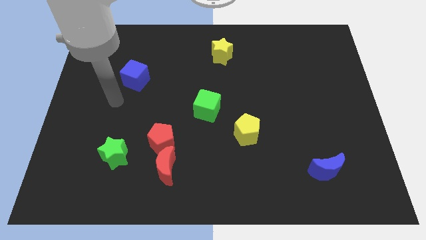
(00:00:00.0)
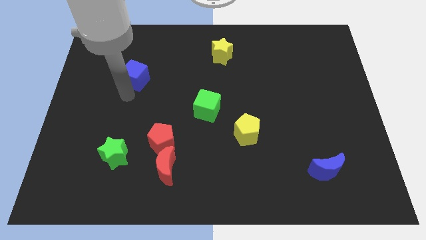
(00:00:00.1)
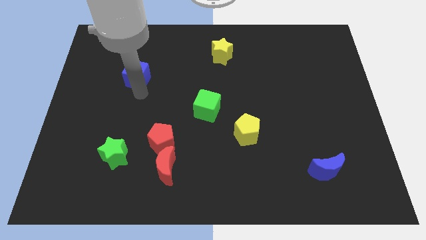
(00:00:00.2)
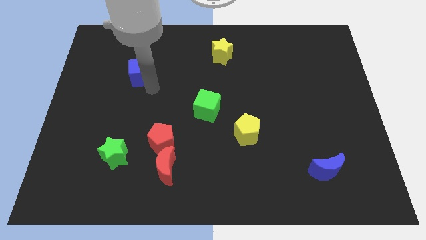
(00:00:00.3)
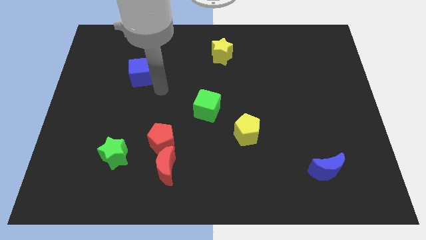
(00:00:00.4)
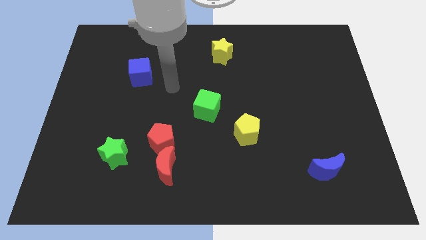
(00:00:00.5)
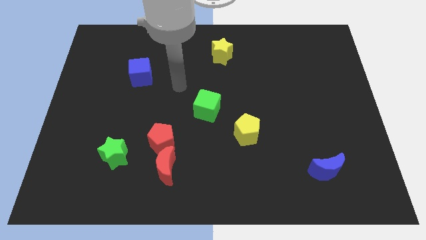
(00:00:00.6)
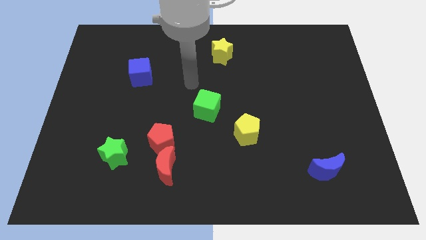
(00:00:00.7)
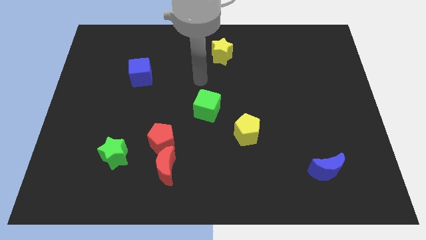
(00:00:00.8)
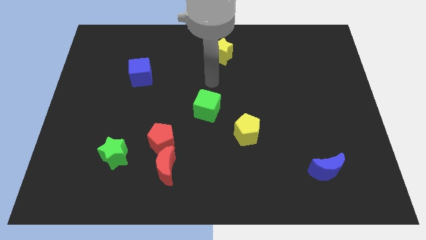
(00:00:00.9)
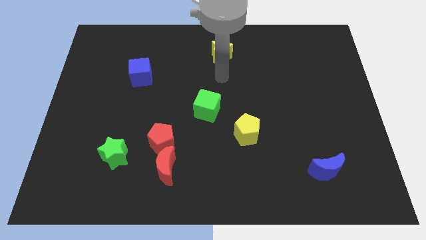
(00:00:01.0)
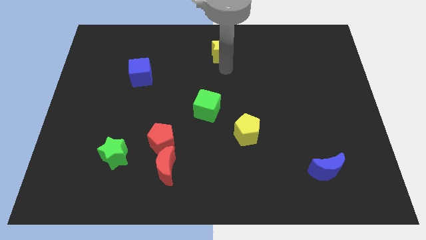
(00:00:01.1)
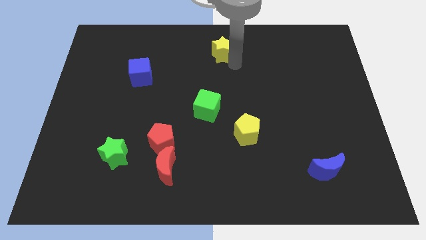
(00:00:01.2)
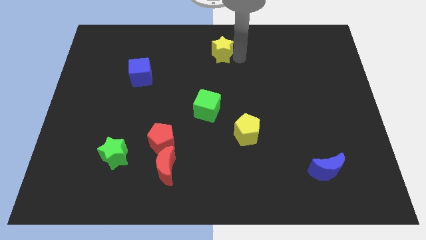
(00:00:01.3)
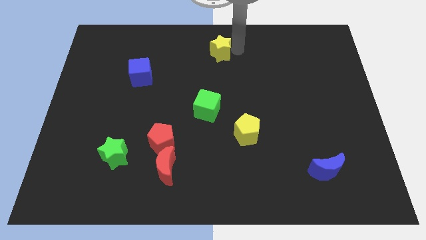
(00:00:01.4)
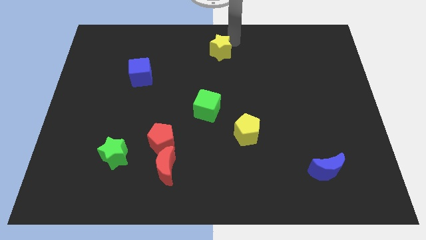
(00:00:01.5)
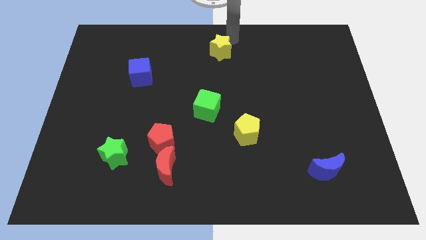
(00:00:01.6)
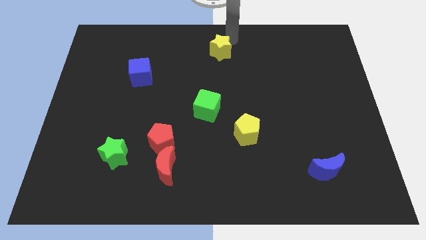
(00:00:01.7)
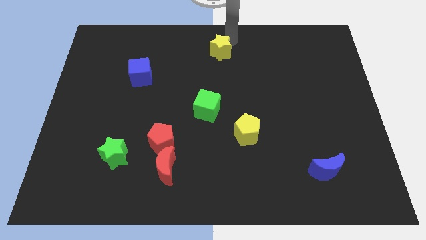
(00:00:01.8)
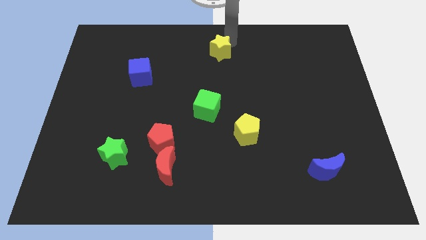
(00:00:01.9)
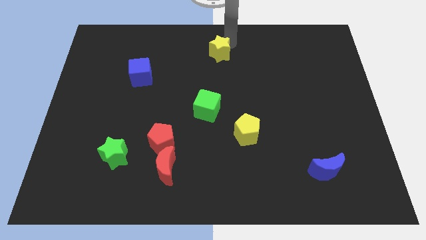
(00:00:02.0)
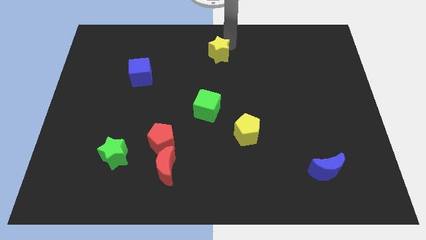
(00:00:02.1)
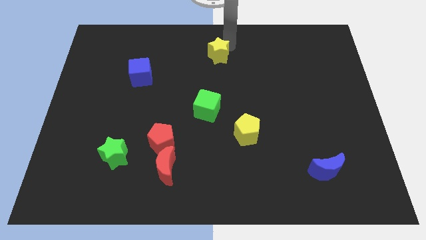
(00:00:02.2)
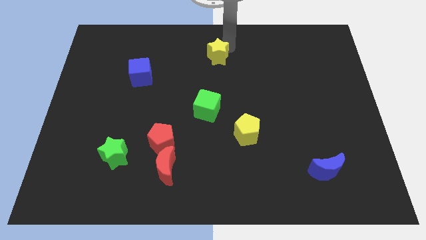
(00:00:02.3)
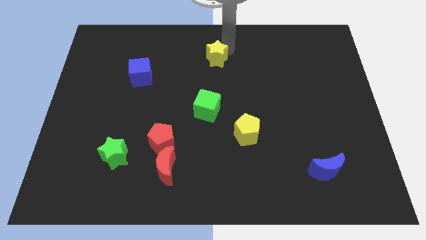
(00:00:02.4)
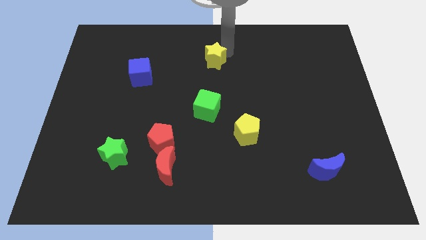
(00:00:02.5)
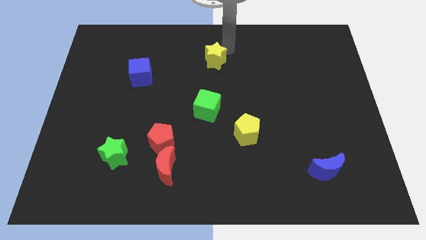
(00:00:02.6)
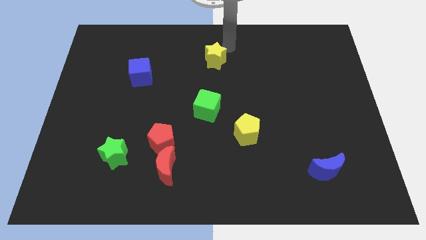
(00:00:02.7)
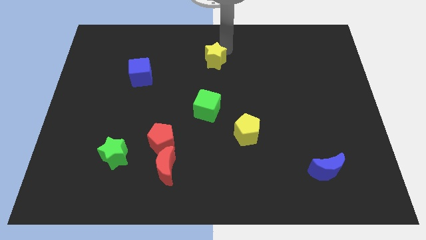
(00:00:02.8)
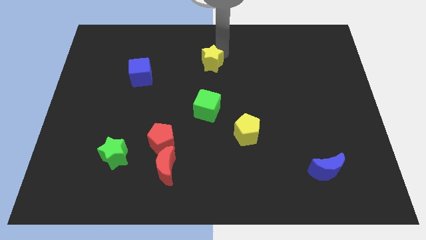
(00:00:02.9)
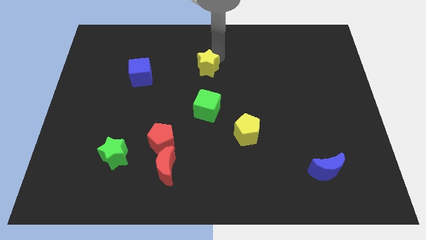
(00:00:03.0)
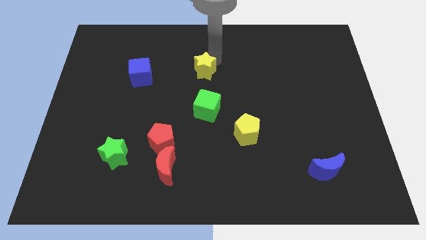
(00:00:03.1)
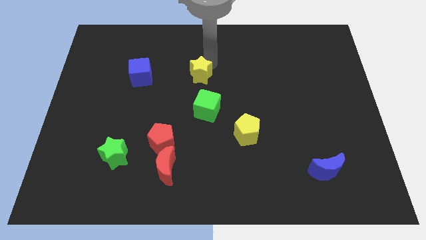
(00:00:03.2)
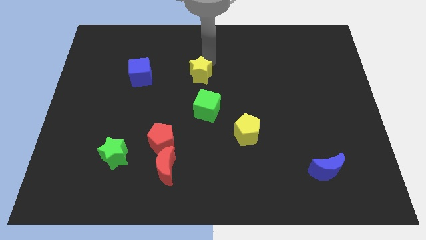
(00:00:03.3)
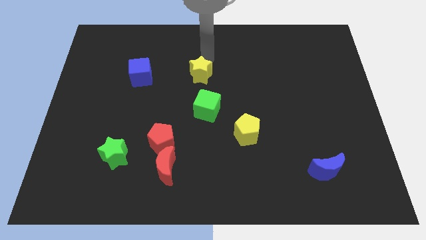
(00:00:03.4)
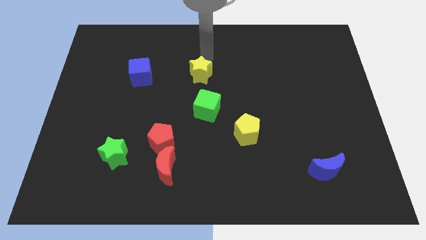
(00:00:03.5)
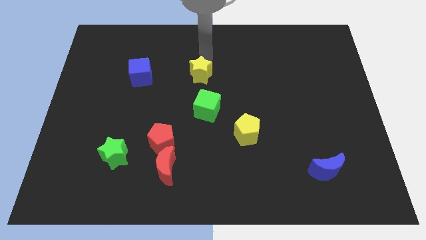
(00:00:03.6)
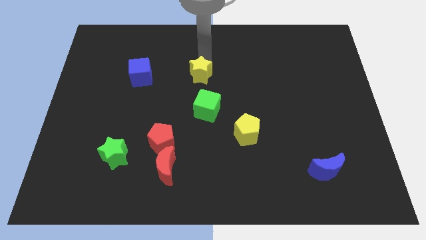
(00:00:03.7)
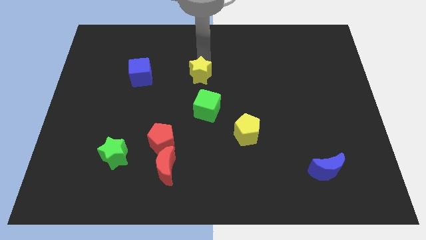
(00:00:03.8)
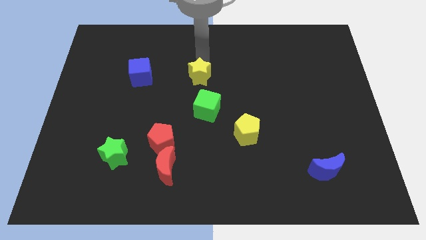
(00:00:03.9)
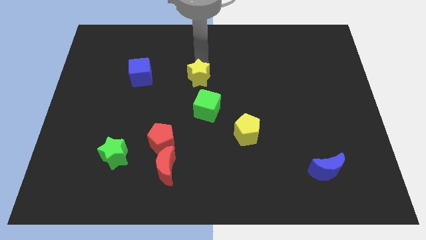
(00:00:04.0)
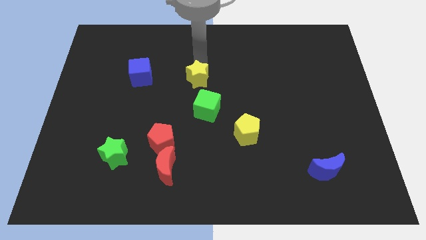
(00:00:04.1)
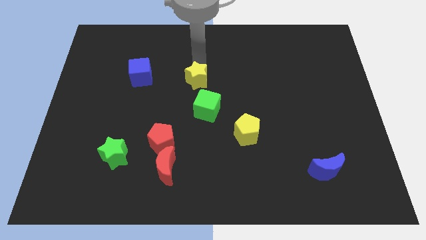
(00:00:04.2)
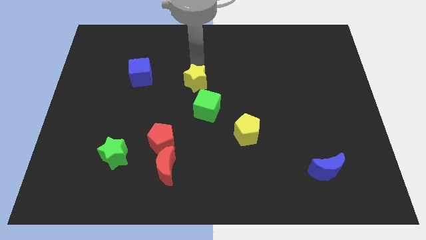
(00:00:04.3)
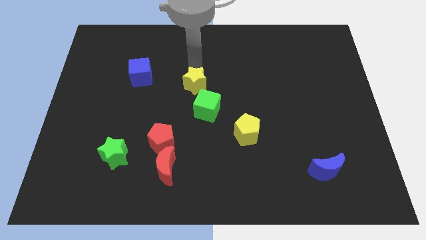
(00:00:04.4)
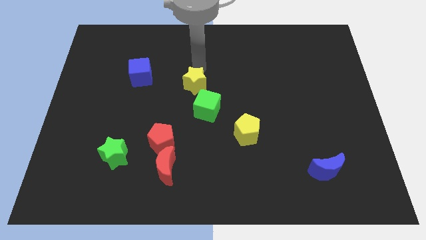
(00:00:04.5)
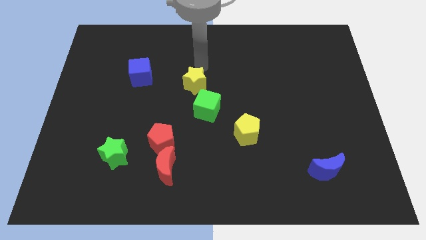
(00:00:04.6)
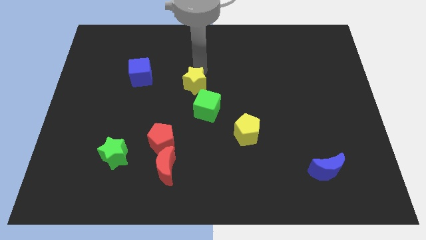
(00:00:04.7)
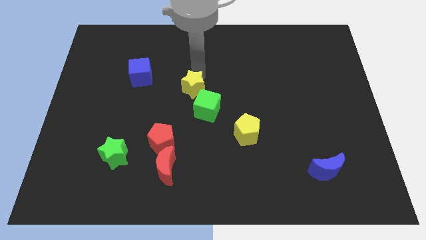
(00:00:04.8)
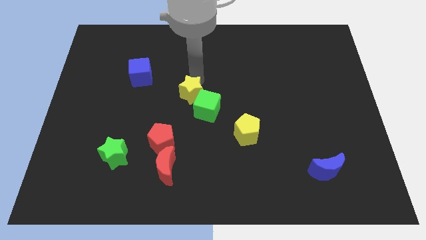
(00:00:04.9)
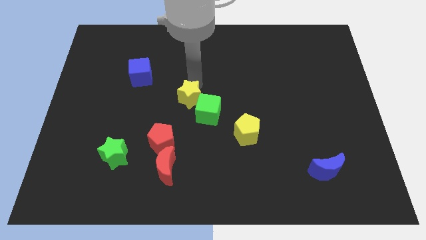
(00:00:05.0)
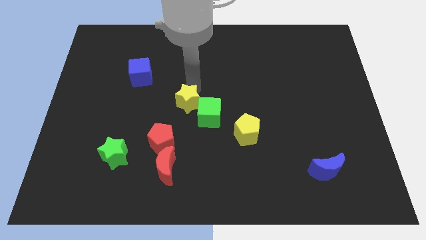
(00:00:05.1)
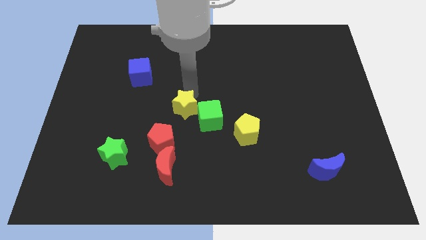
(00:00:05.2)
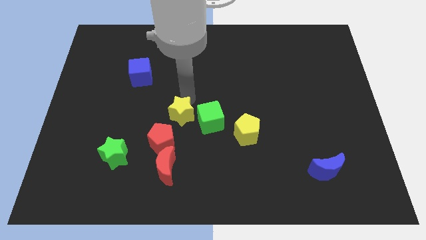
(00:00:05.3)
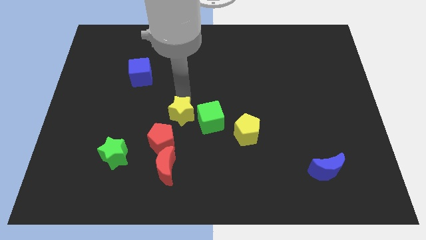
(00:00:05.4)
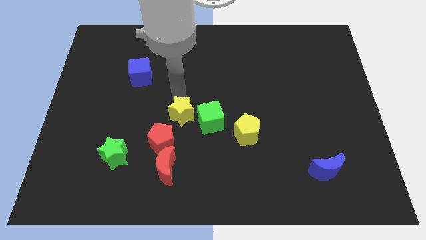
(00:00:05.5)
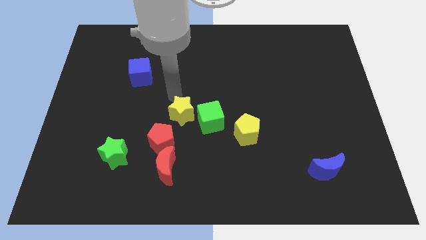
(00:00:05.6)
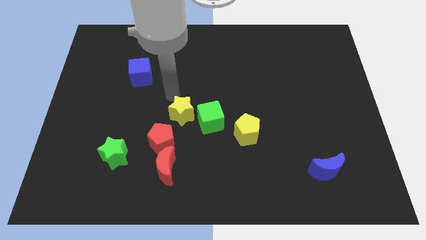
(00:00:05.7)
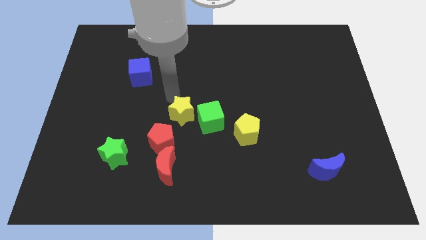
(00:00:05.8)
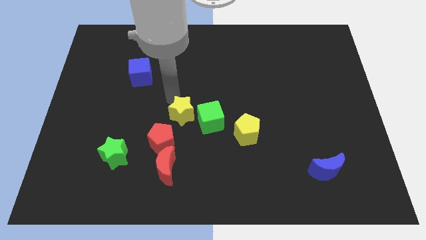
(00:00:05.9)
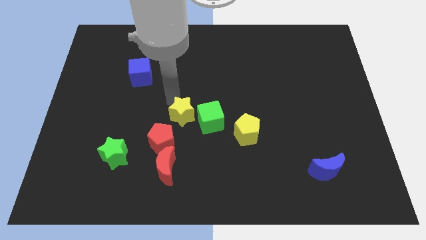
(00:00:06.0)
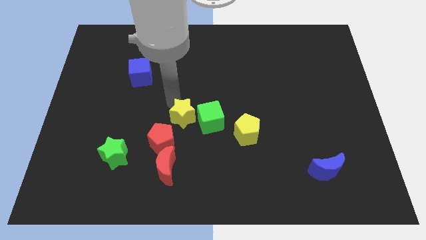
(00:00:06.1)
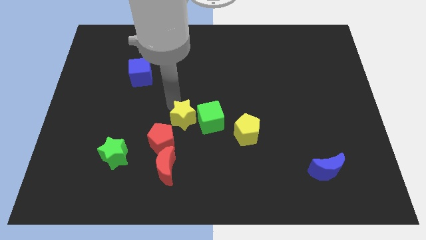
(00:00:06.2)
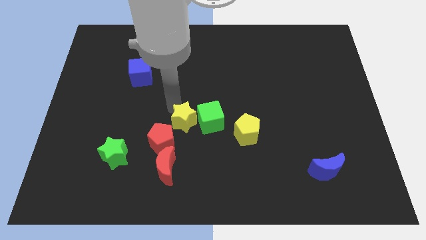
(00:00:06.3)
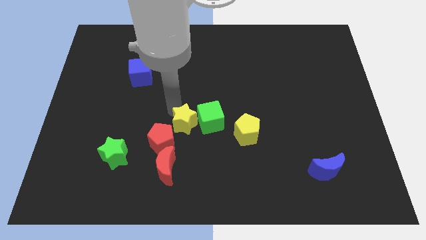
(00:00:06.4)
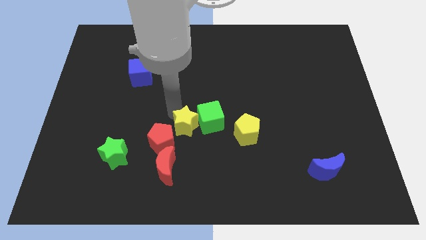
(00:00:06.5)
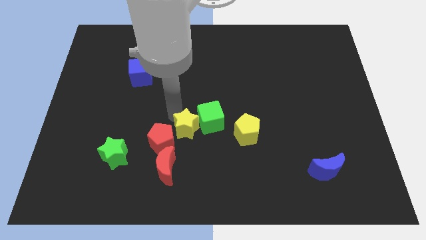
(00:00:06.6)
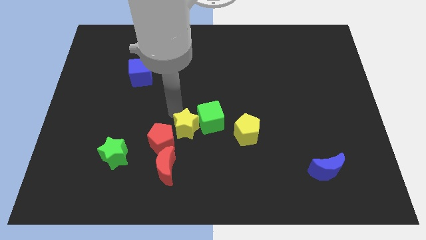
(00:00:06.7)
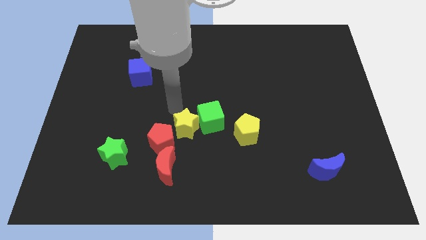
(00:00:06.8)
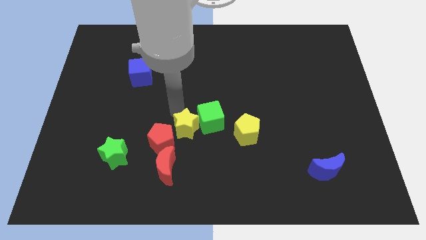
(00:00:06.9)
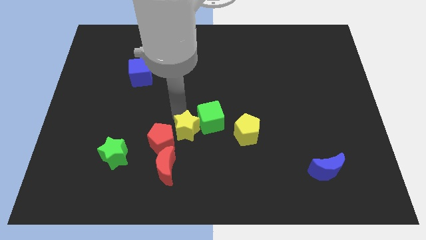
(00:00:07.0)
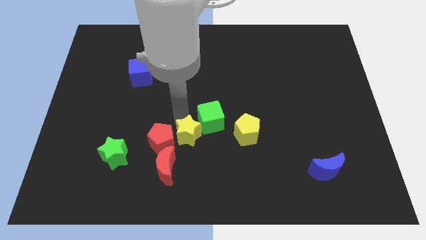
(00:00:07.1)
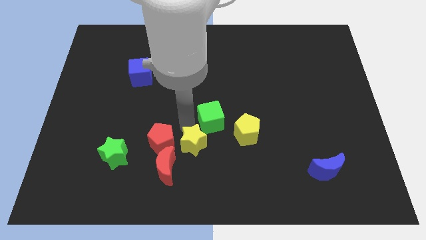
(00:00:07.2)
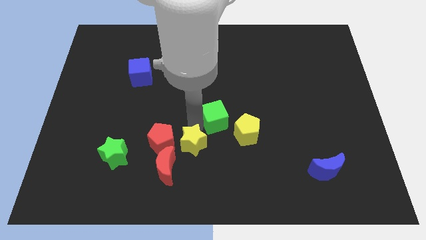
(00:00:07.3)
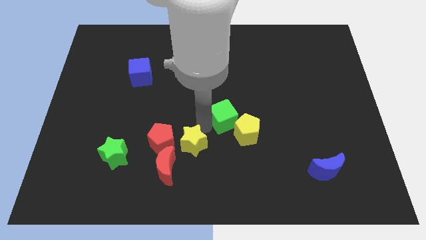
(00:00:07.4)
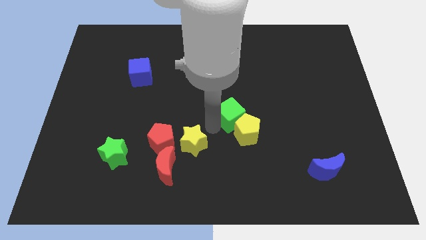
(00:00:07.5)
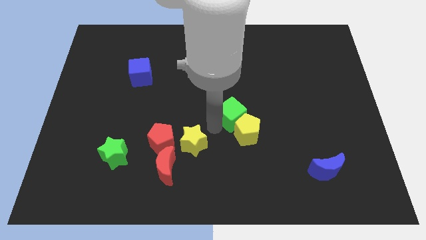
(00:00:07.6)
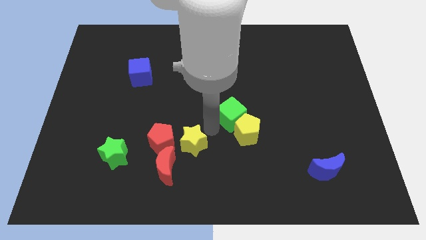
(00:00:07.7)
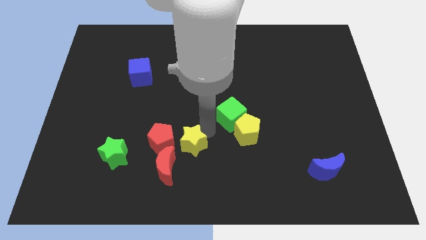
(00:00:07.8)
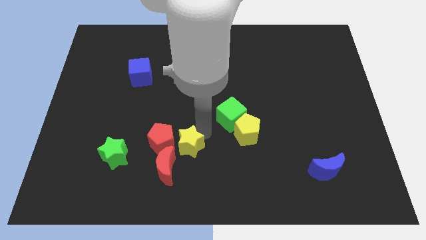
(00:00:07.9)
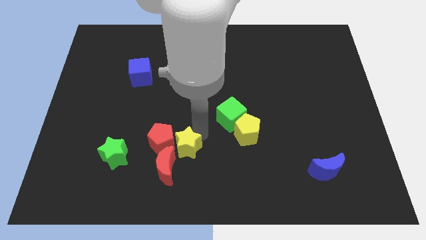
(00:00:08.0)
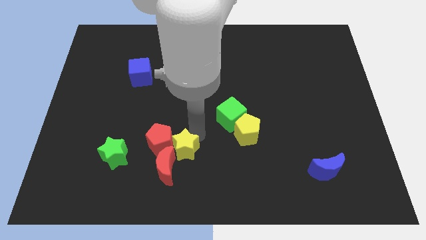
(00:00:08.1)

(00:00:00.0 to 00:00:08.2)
put the yellow star next to the red moon
